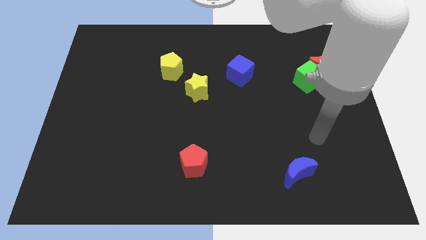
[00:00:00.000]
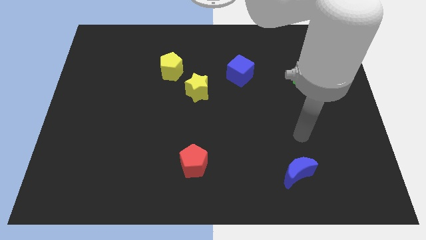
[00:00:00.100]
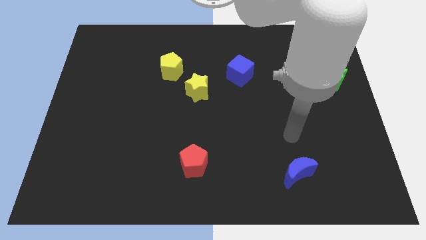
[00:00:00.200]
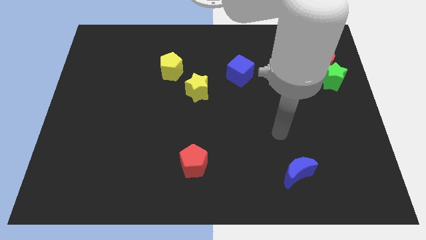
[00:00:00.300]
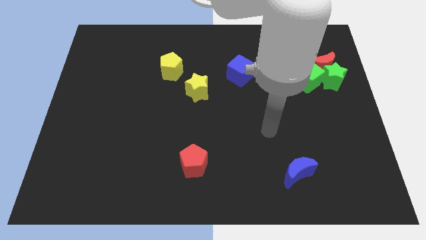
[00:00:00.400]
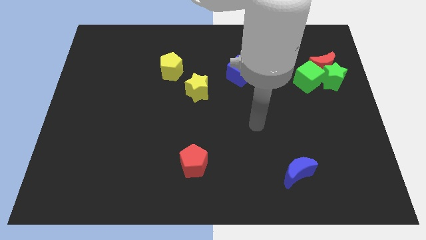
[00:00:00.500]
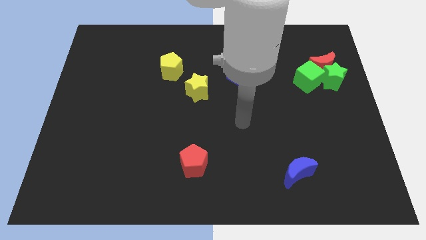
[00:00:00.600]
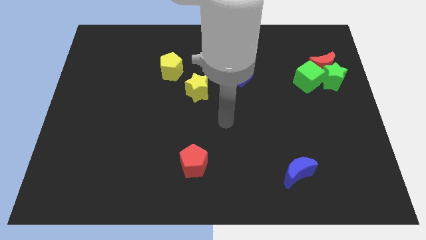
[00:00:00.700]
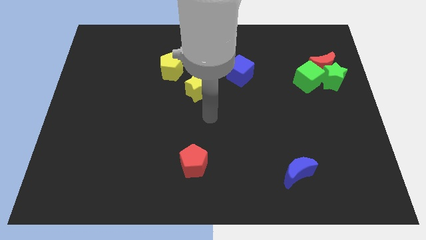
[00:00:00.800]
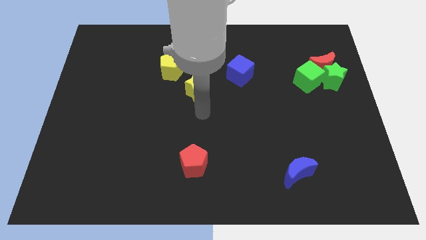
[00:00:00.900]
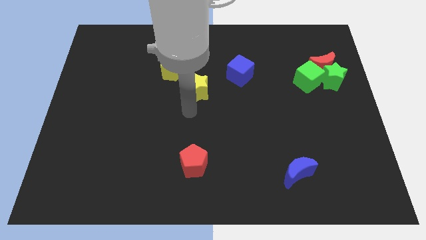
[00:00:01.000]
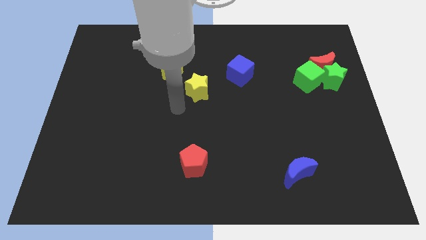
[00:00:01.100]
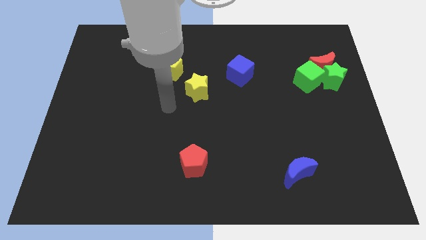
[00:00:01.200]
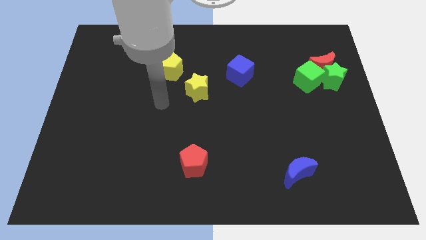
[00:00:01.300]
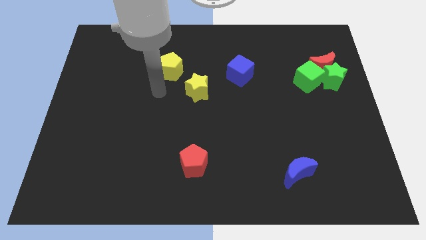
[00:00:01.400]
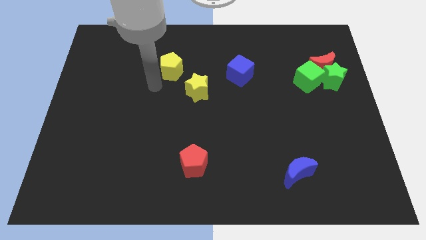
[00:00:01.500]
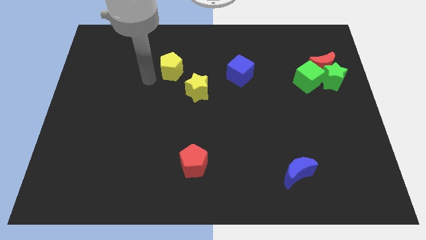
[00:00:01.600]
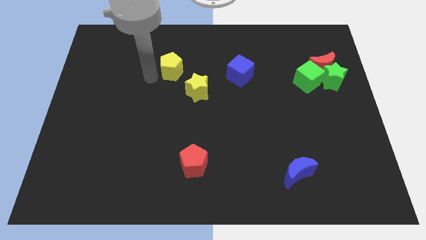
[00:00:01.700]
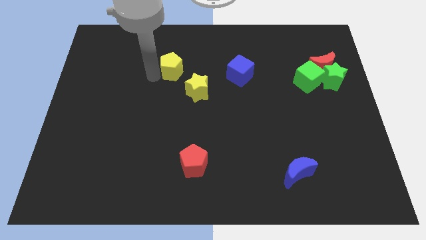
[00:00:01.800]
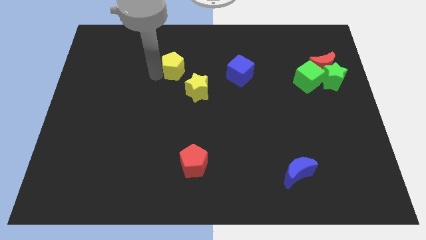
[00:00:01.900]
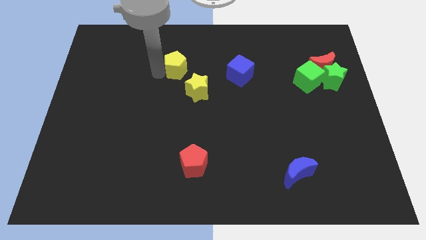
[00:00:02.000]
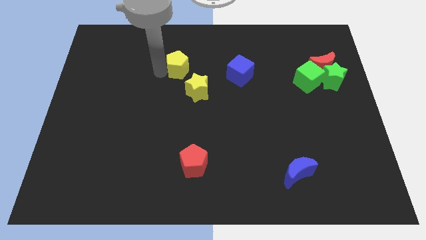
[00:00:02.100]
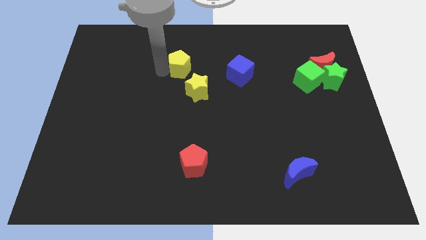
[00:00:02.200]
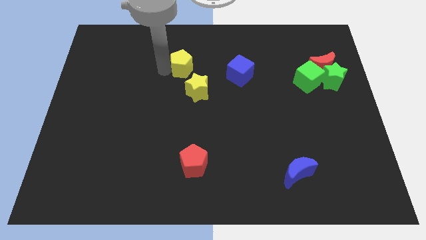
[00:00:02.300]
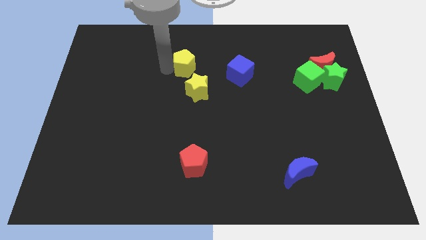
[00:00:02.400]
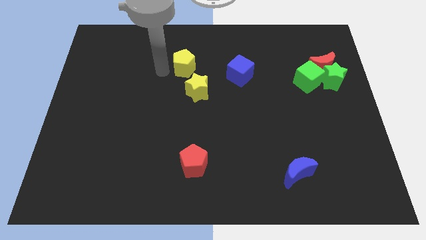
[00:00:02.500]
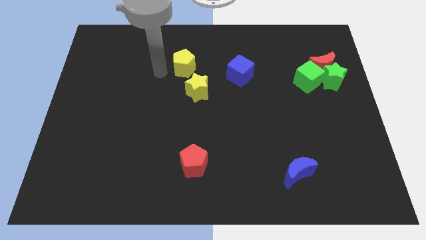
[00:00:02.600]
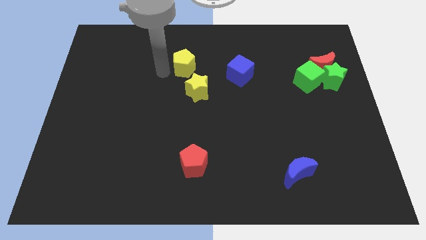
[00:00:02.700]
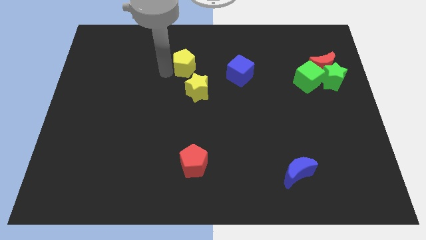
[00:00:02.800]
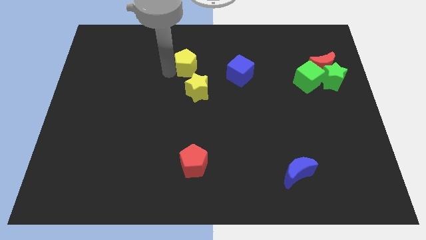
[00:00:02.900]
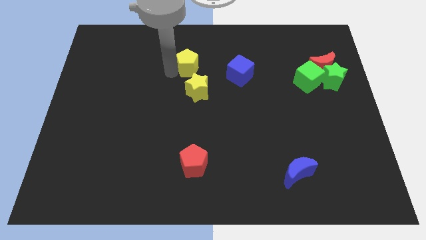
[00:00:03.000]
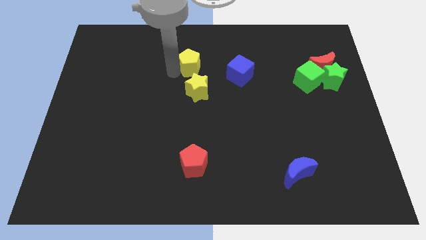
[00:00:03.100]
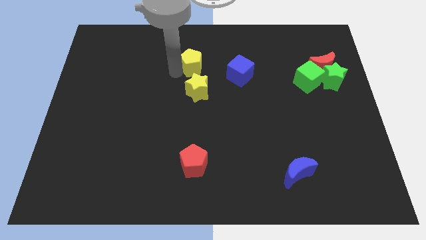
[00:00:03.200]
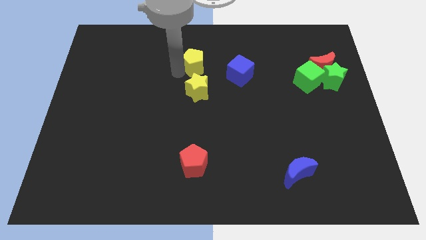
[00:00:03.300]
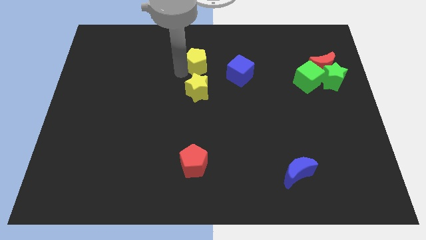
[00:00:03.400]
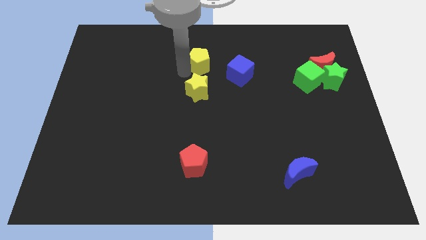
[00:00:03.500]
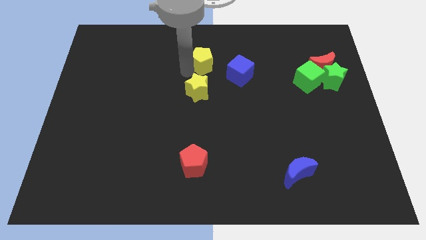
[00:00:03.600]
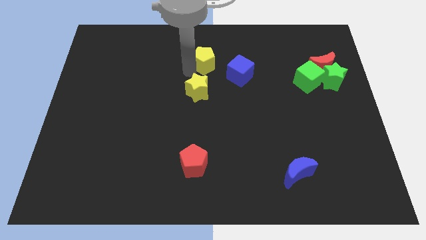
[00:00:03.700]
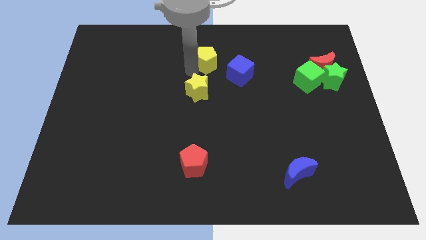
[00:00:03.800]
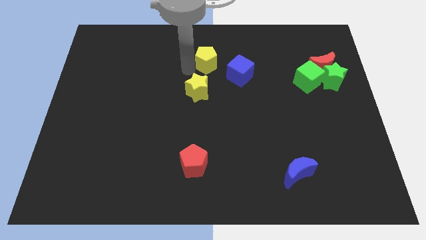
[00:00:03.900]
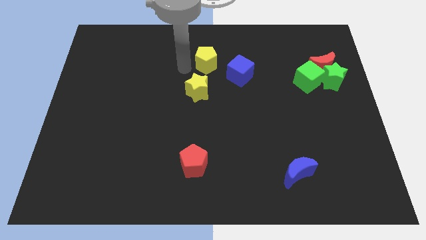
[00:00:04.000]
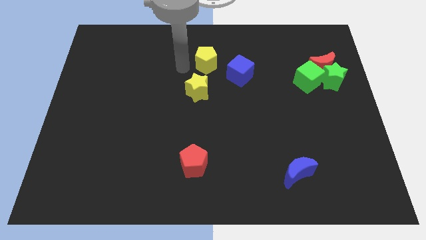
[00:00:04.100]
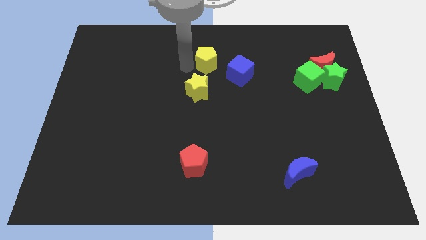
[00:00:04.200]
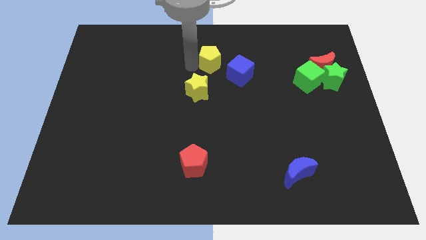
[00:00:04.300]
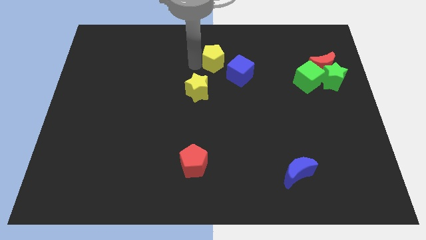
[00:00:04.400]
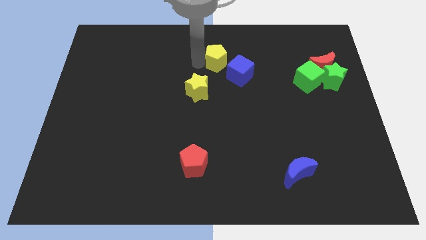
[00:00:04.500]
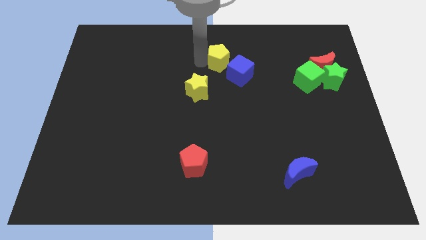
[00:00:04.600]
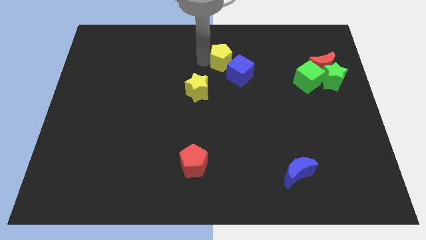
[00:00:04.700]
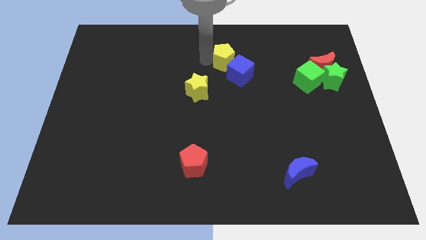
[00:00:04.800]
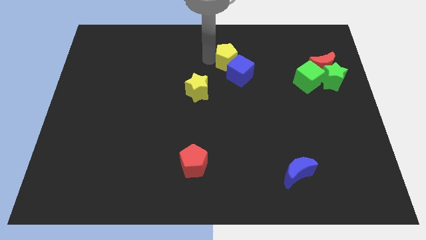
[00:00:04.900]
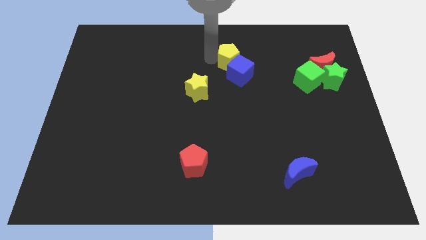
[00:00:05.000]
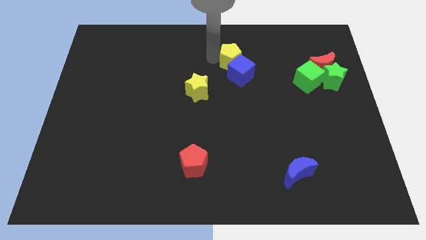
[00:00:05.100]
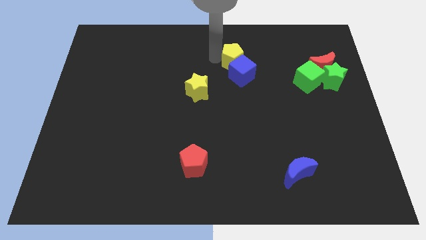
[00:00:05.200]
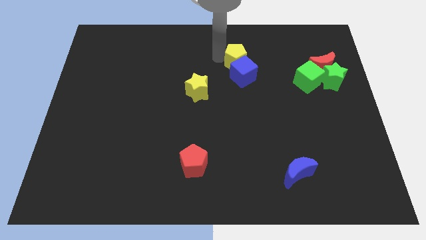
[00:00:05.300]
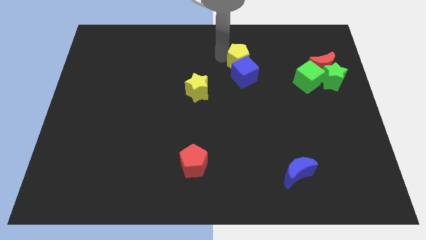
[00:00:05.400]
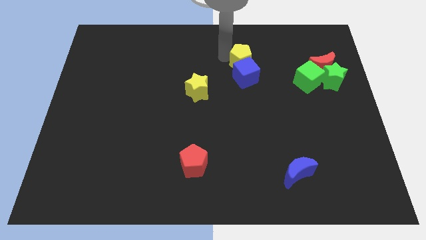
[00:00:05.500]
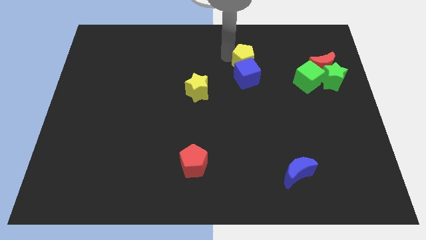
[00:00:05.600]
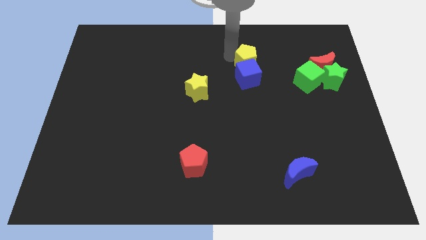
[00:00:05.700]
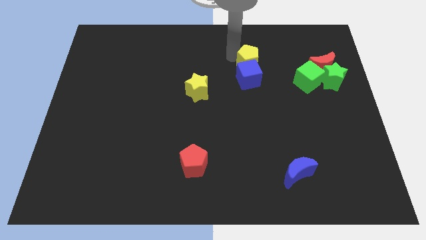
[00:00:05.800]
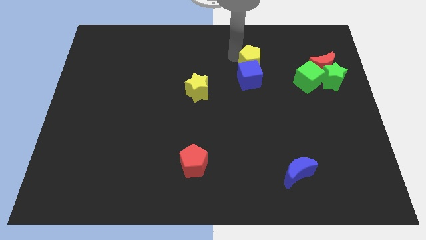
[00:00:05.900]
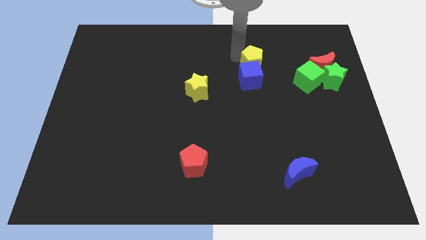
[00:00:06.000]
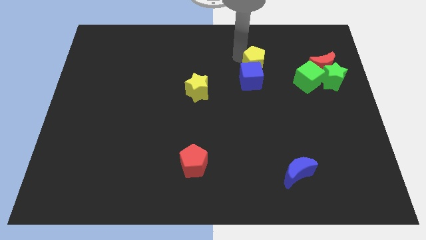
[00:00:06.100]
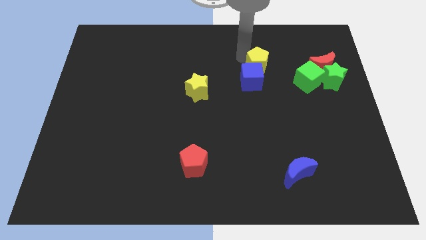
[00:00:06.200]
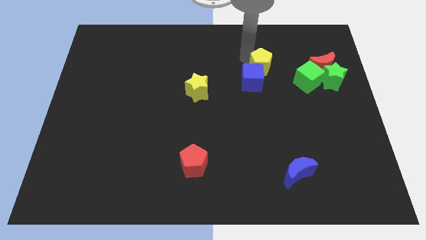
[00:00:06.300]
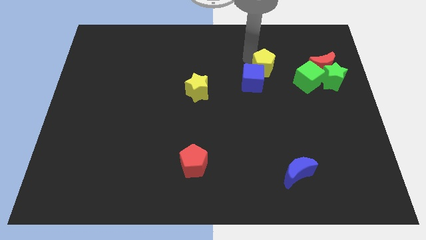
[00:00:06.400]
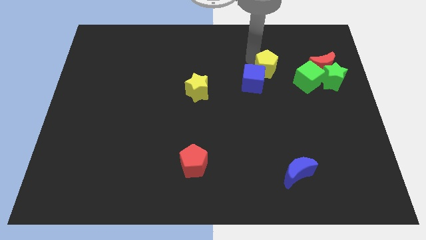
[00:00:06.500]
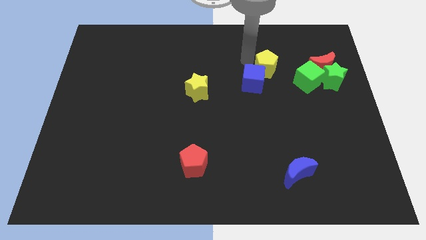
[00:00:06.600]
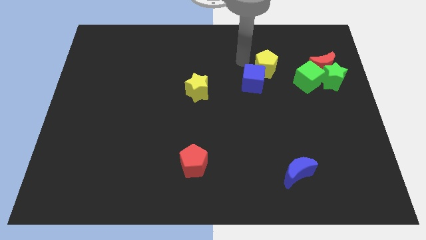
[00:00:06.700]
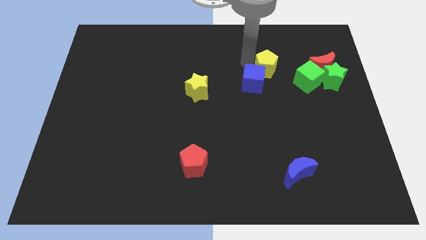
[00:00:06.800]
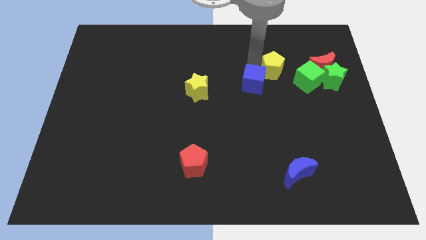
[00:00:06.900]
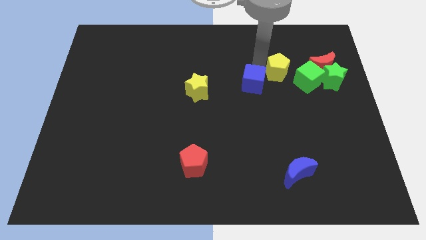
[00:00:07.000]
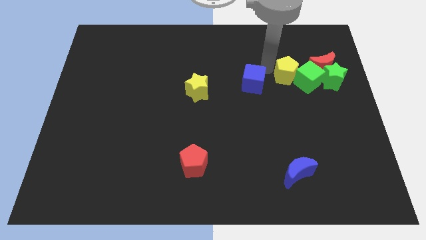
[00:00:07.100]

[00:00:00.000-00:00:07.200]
put the yellow pentagon next to the green cube

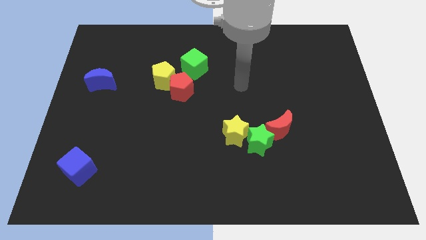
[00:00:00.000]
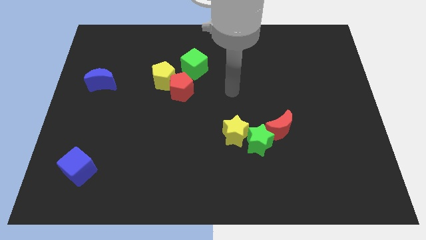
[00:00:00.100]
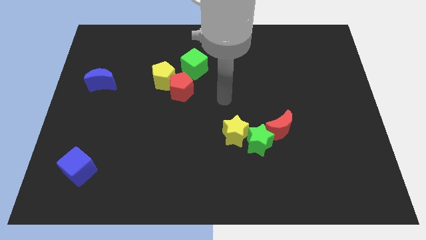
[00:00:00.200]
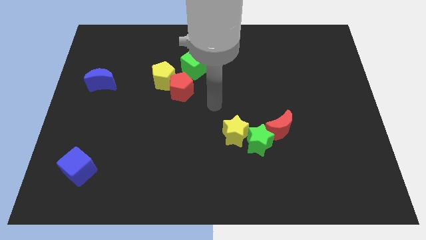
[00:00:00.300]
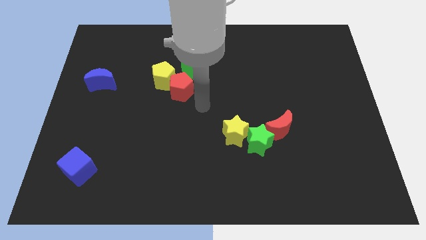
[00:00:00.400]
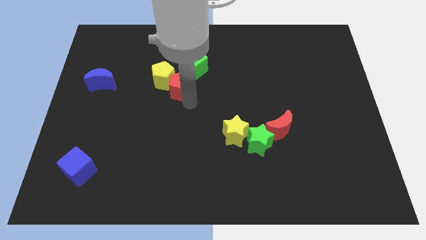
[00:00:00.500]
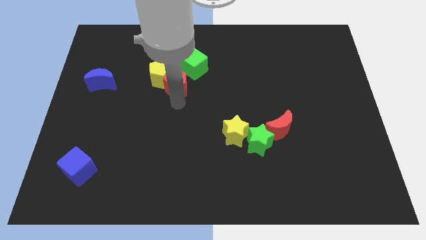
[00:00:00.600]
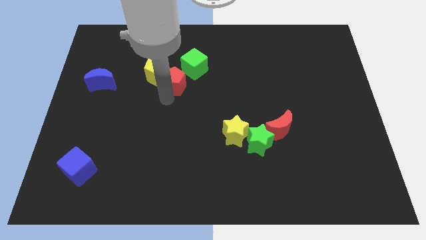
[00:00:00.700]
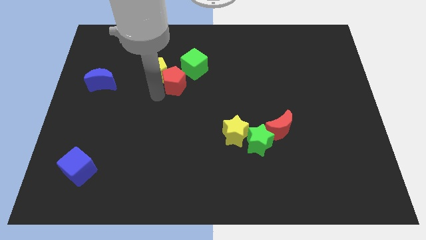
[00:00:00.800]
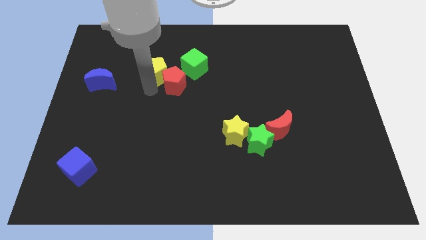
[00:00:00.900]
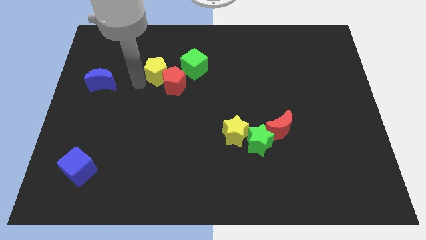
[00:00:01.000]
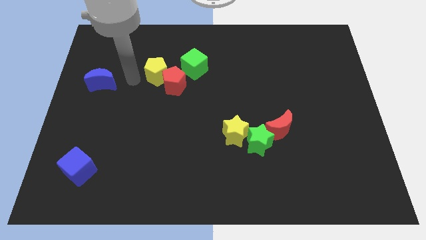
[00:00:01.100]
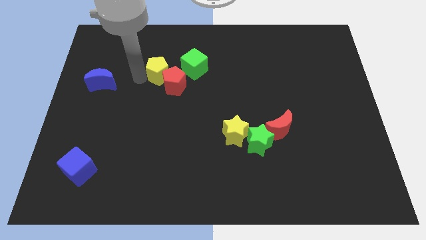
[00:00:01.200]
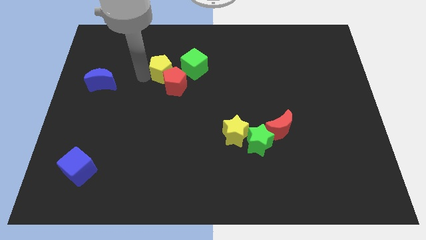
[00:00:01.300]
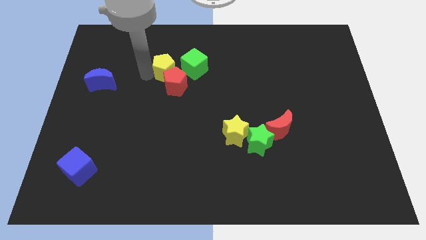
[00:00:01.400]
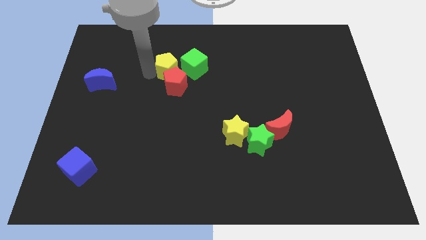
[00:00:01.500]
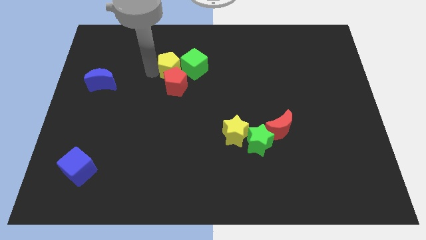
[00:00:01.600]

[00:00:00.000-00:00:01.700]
slide the yellow pentagon close to the green cube
